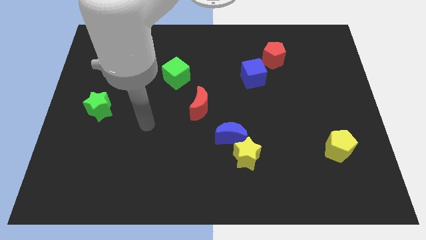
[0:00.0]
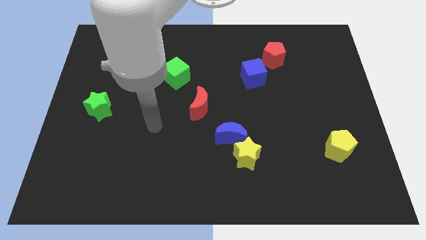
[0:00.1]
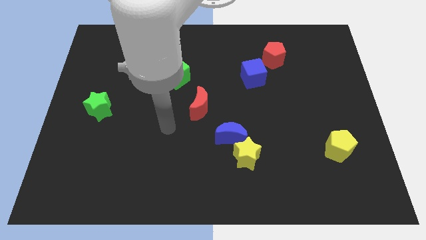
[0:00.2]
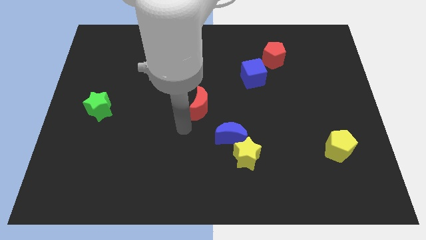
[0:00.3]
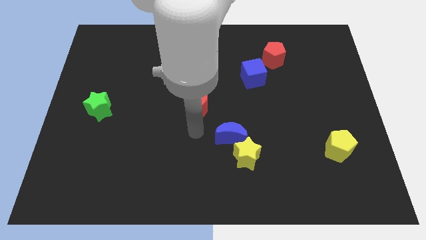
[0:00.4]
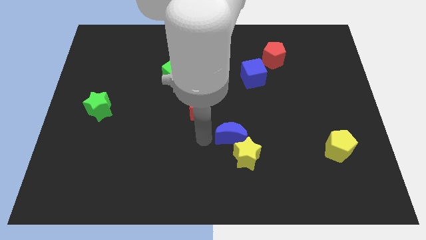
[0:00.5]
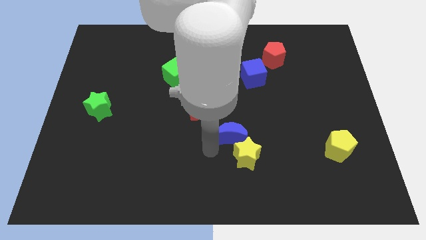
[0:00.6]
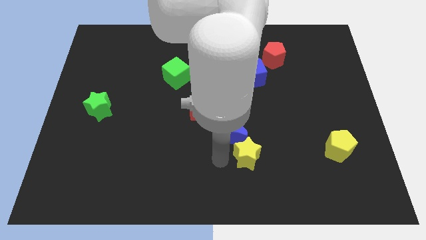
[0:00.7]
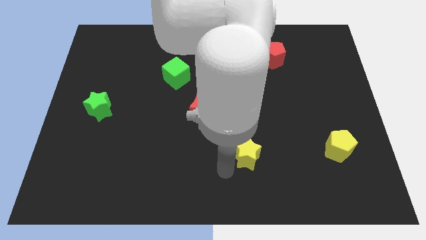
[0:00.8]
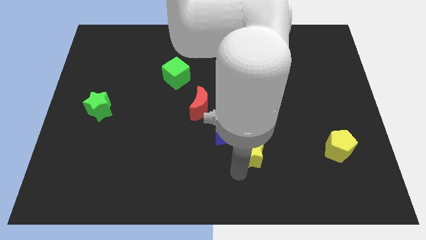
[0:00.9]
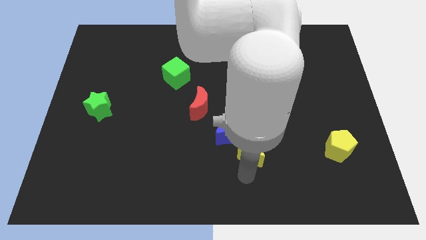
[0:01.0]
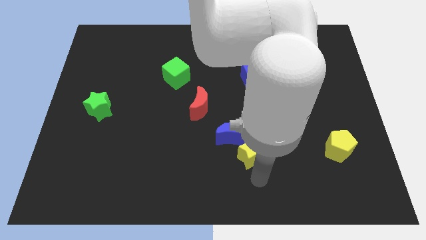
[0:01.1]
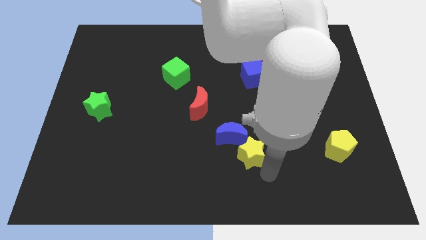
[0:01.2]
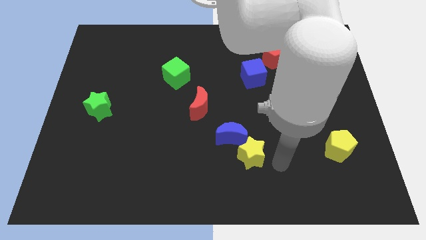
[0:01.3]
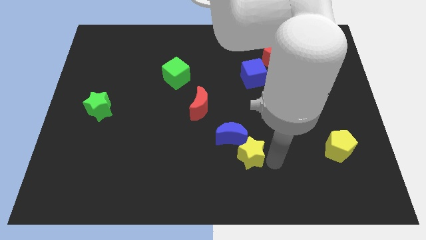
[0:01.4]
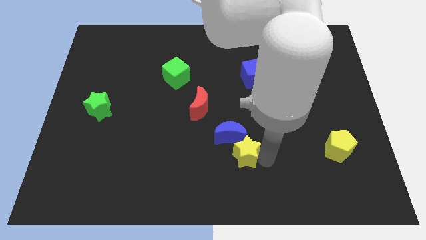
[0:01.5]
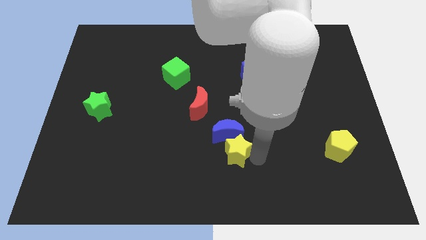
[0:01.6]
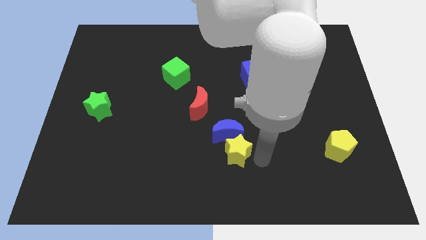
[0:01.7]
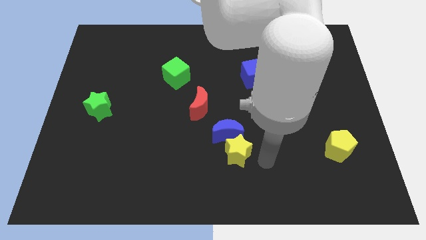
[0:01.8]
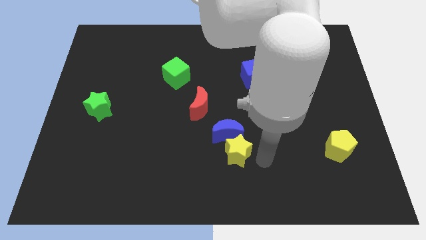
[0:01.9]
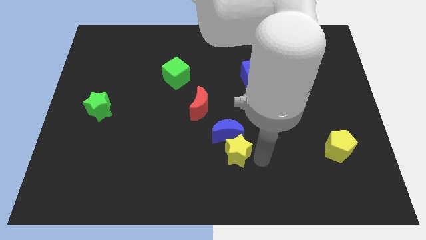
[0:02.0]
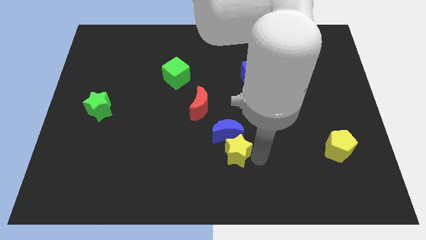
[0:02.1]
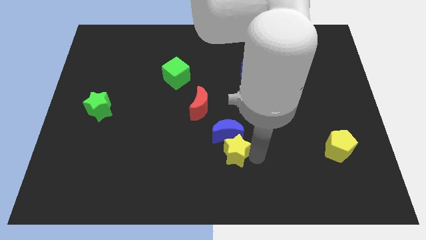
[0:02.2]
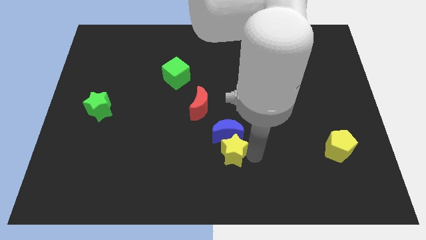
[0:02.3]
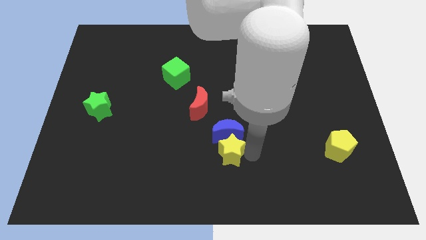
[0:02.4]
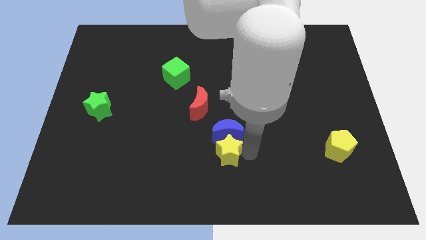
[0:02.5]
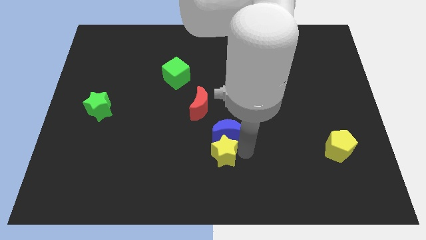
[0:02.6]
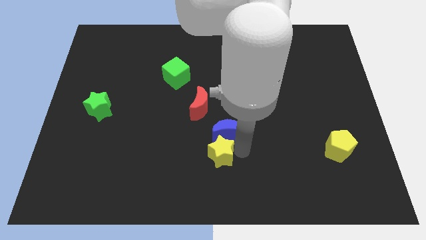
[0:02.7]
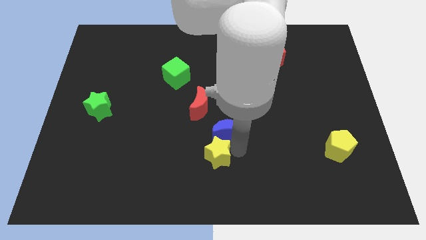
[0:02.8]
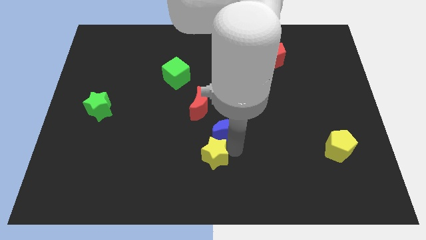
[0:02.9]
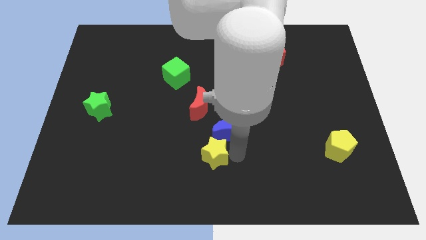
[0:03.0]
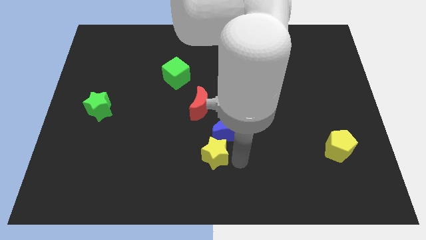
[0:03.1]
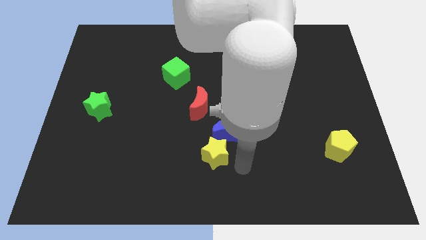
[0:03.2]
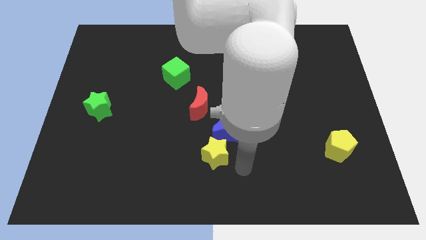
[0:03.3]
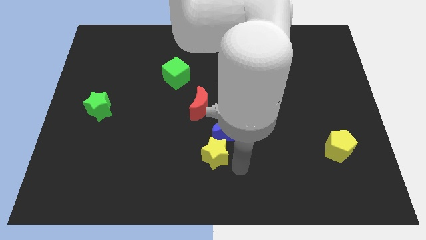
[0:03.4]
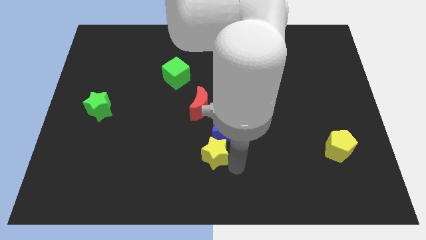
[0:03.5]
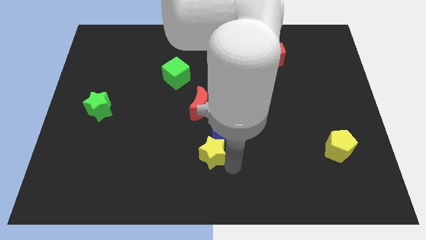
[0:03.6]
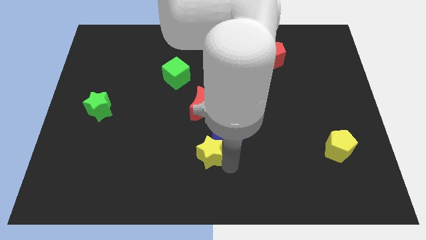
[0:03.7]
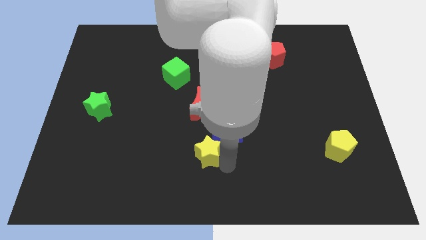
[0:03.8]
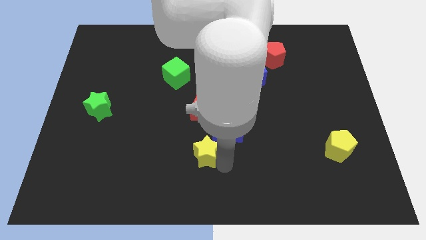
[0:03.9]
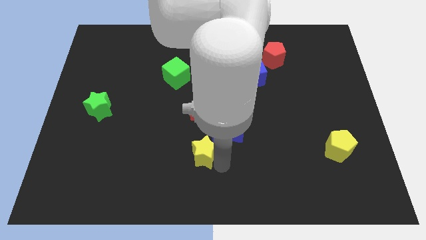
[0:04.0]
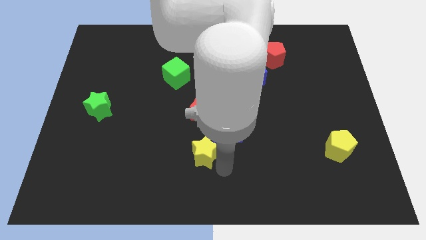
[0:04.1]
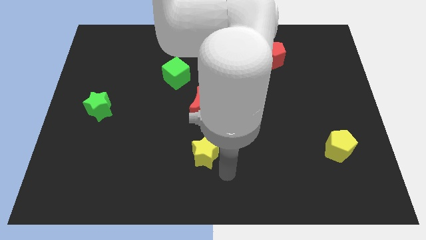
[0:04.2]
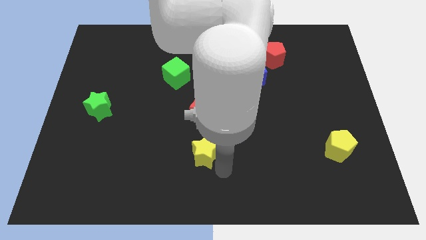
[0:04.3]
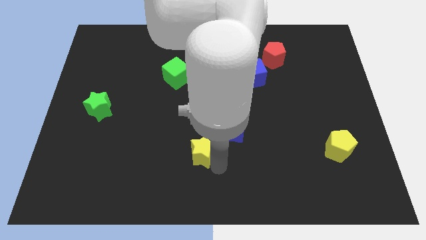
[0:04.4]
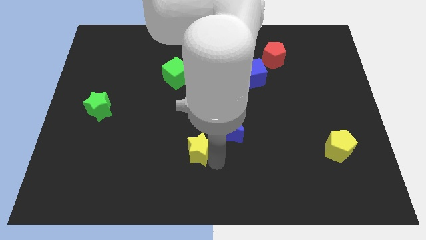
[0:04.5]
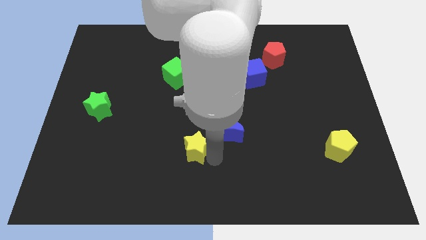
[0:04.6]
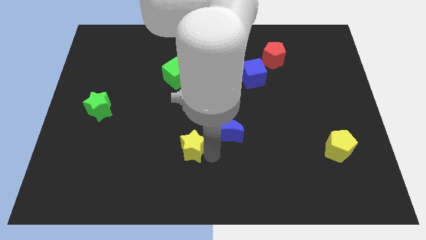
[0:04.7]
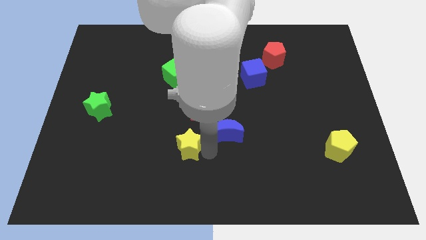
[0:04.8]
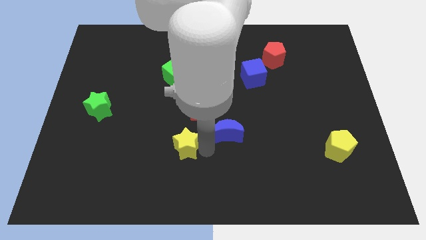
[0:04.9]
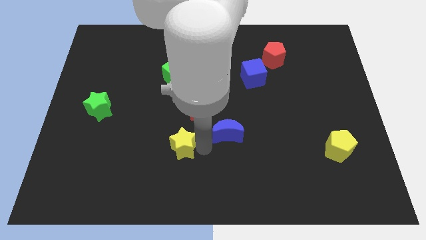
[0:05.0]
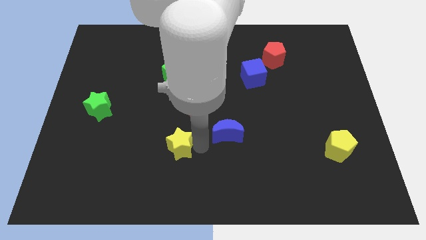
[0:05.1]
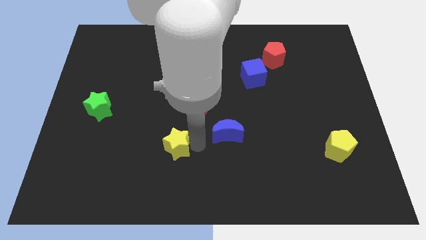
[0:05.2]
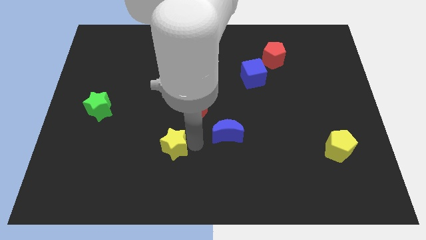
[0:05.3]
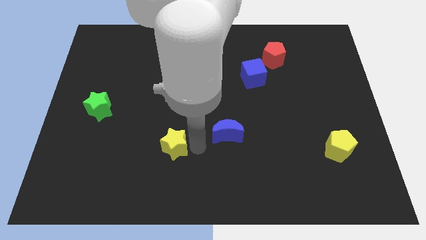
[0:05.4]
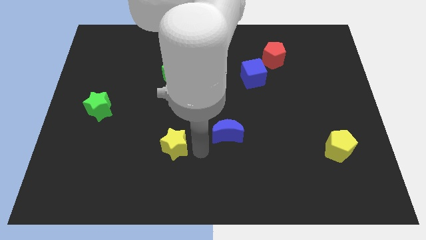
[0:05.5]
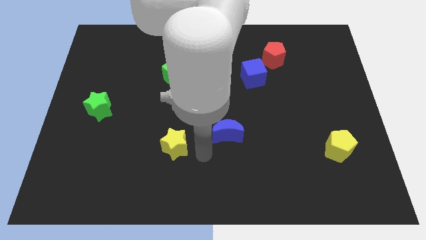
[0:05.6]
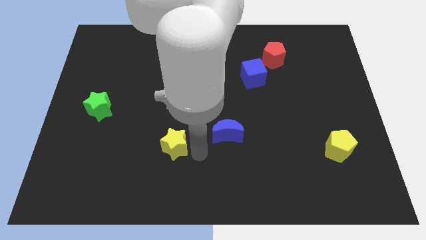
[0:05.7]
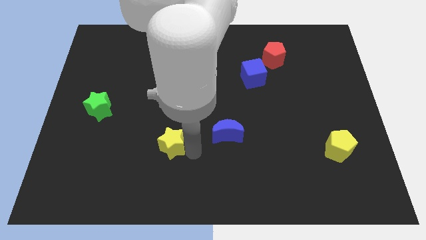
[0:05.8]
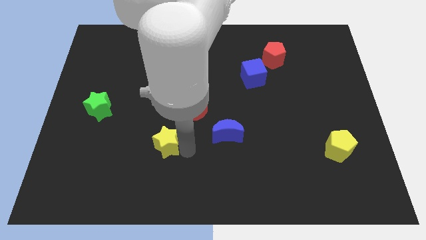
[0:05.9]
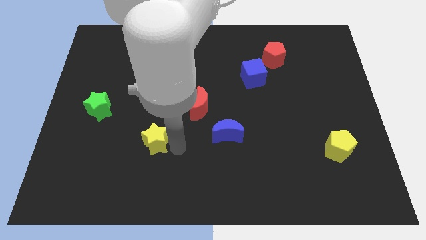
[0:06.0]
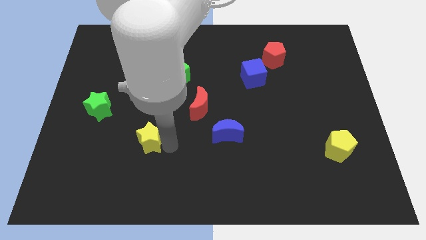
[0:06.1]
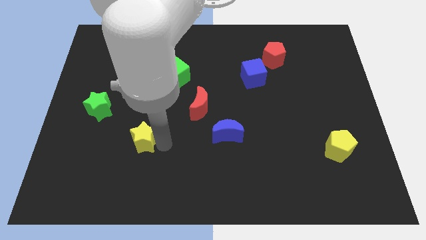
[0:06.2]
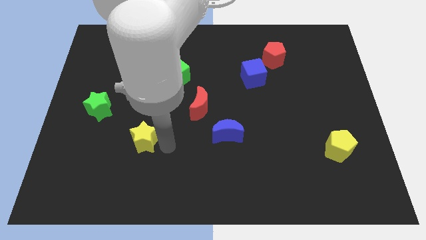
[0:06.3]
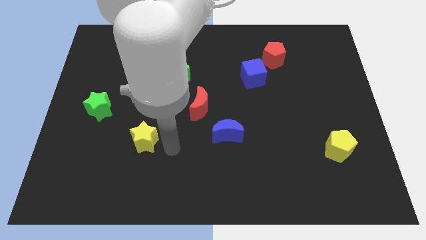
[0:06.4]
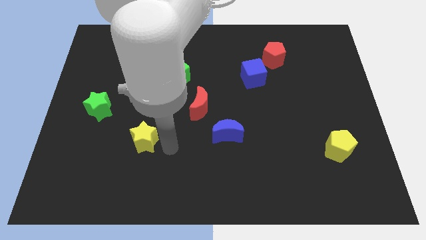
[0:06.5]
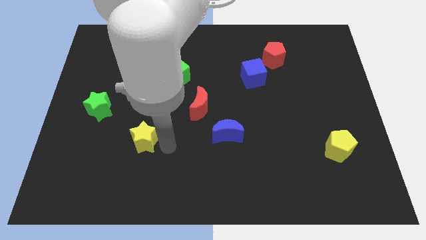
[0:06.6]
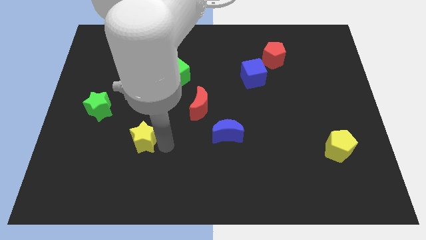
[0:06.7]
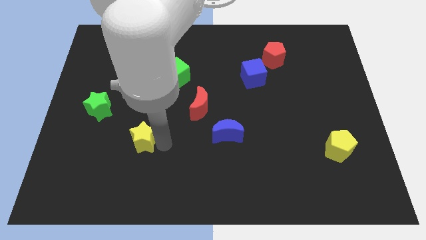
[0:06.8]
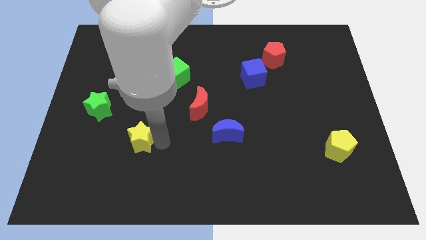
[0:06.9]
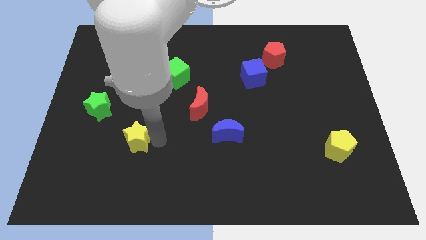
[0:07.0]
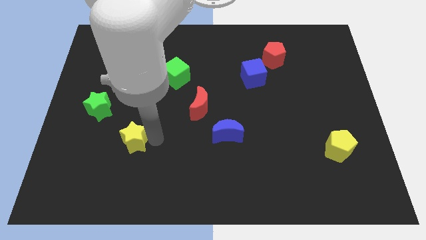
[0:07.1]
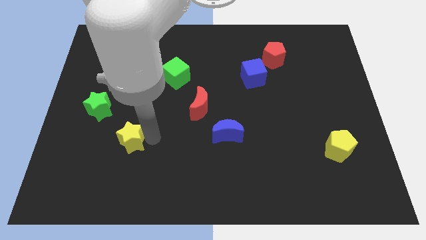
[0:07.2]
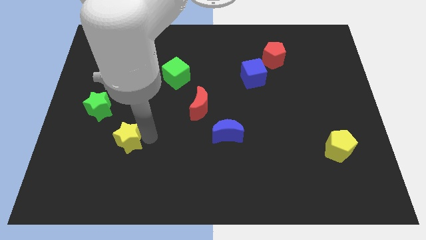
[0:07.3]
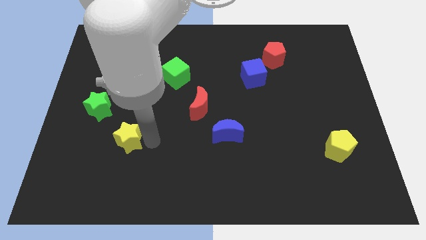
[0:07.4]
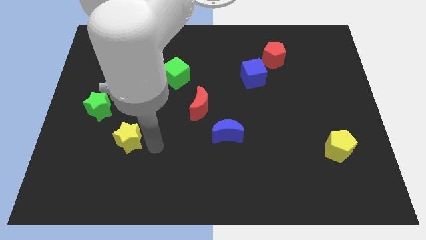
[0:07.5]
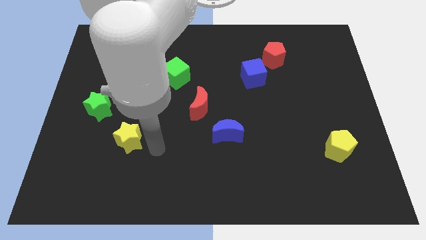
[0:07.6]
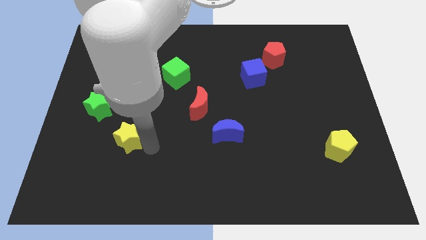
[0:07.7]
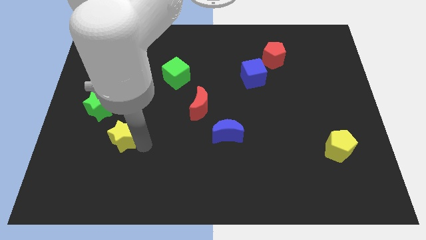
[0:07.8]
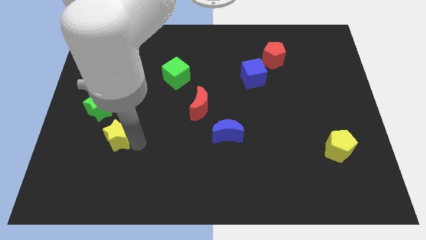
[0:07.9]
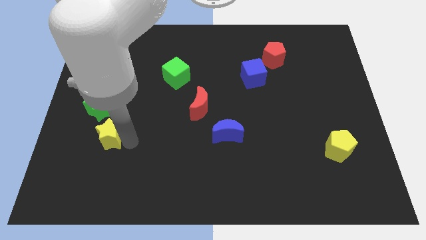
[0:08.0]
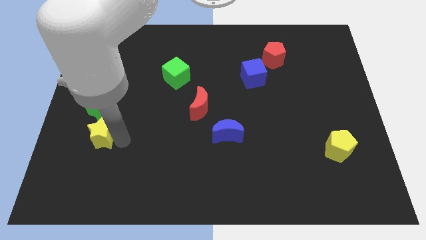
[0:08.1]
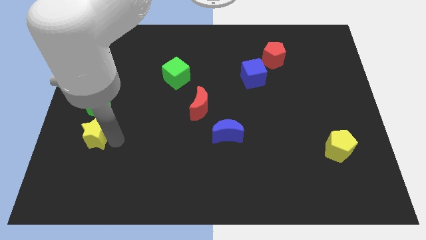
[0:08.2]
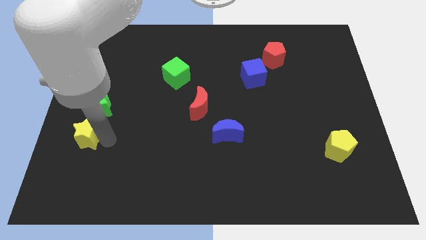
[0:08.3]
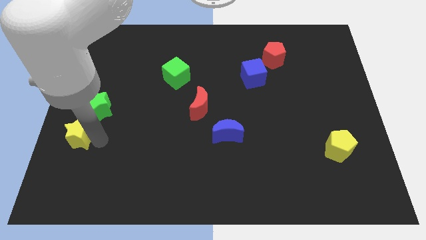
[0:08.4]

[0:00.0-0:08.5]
push the yellow star to the left side
